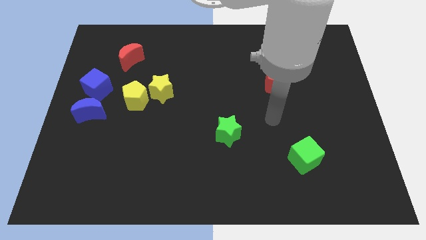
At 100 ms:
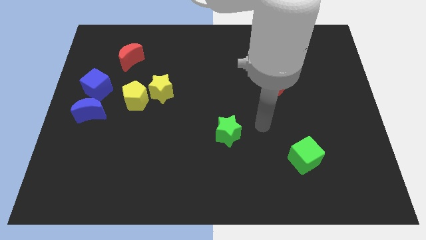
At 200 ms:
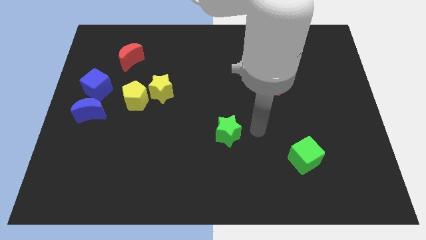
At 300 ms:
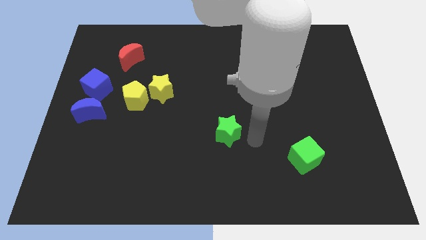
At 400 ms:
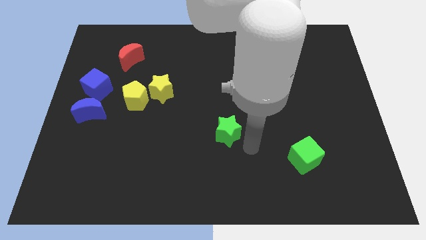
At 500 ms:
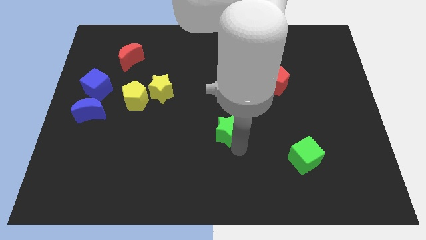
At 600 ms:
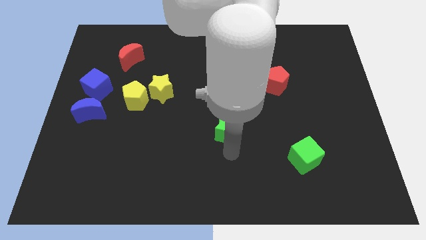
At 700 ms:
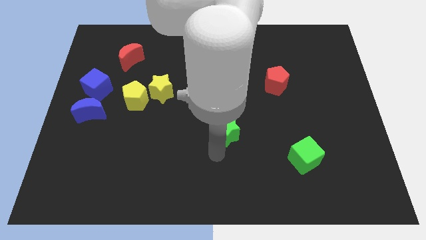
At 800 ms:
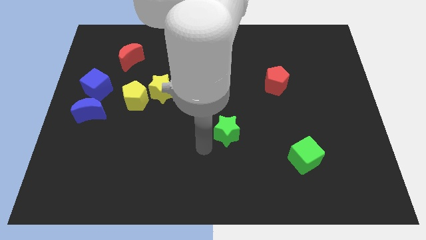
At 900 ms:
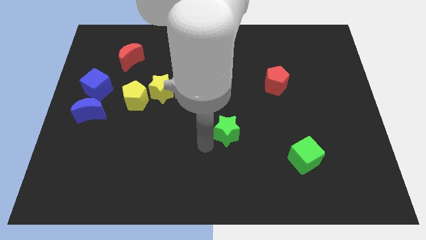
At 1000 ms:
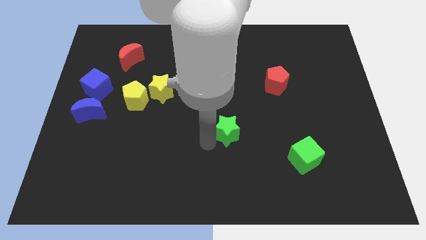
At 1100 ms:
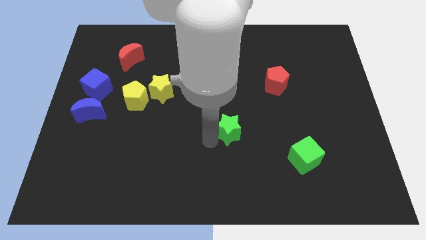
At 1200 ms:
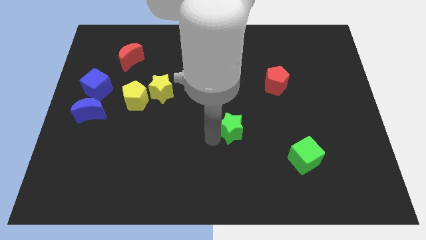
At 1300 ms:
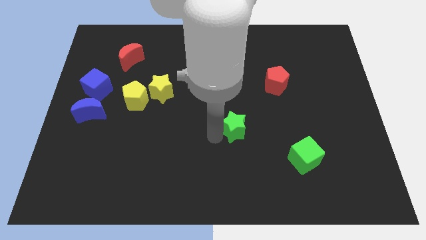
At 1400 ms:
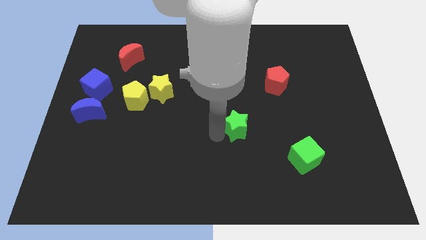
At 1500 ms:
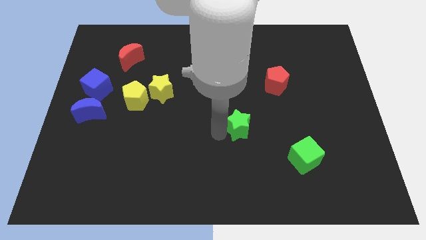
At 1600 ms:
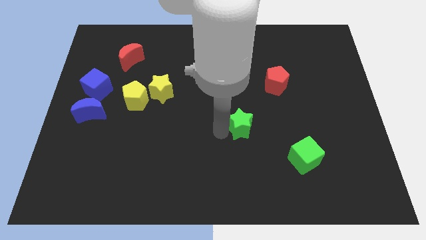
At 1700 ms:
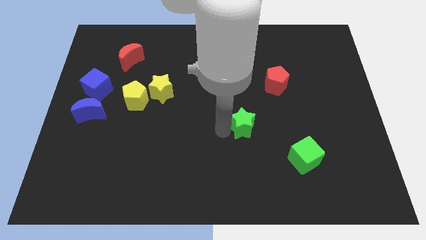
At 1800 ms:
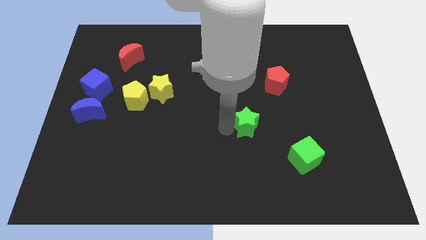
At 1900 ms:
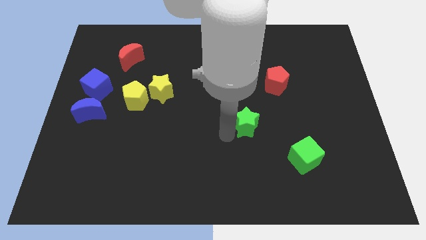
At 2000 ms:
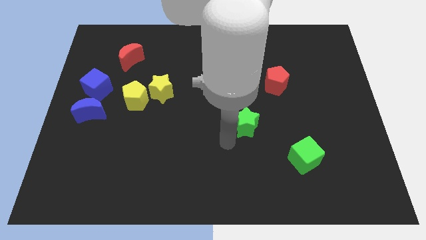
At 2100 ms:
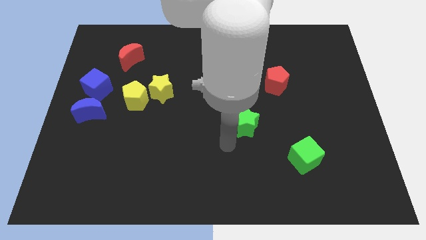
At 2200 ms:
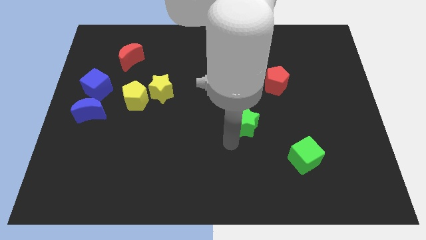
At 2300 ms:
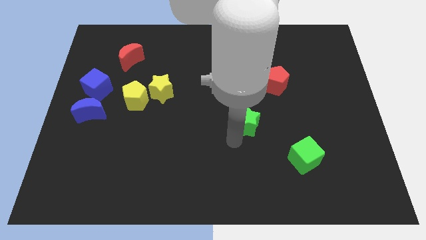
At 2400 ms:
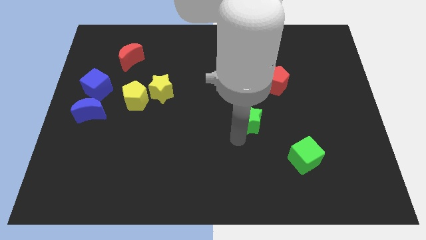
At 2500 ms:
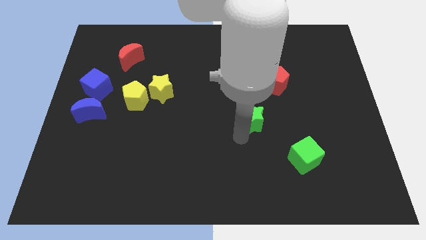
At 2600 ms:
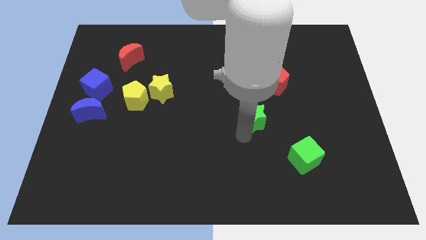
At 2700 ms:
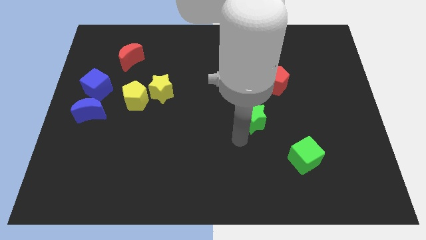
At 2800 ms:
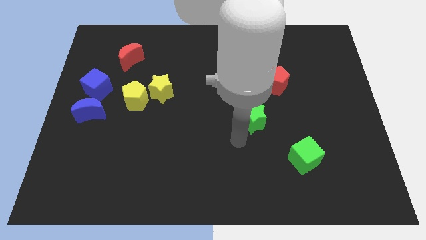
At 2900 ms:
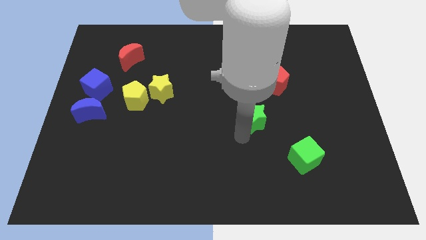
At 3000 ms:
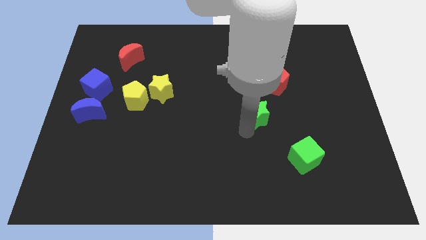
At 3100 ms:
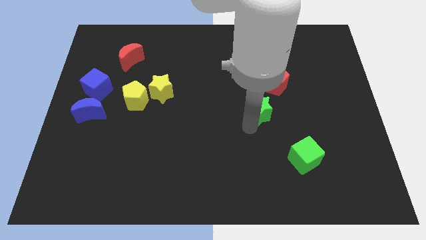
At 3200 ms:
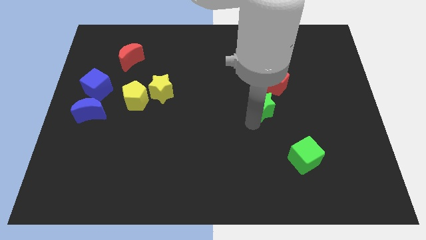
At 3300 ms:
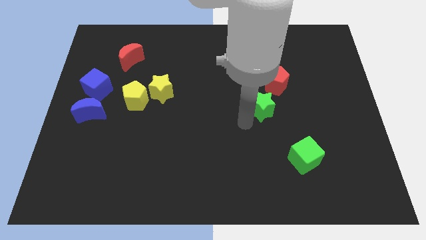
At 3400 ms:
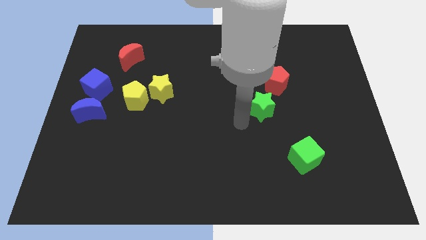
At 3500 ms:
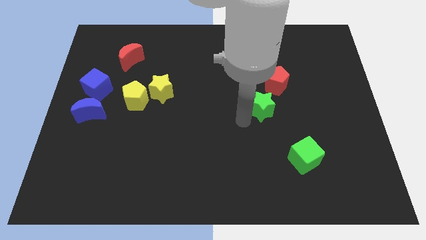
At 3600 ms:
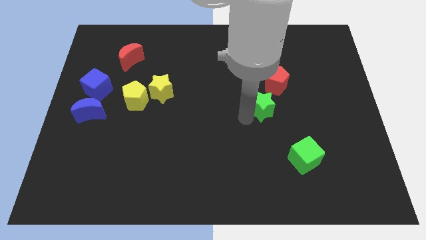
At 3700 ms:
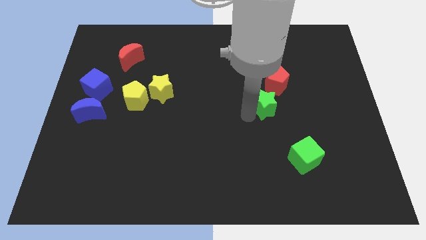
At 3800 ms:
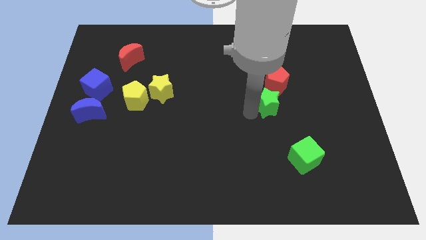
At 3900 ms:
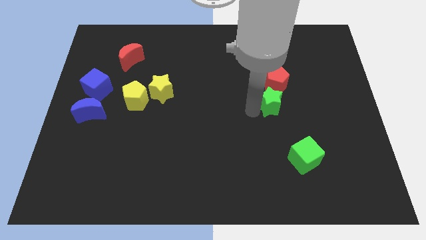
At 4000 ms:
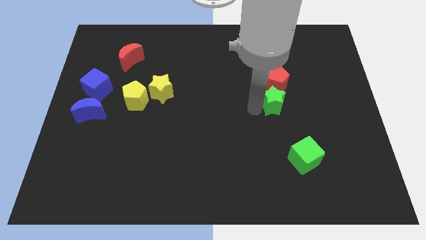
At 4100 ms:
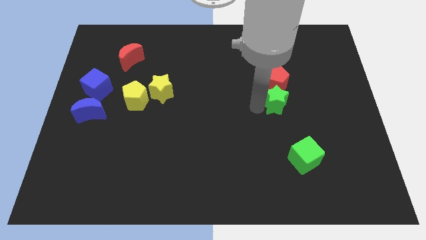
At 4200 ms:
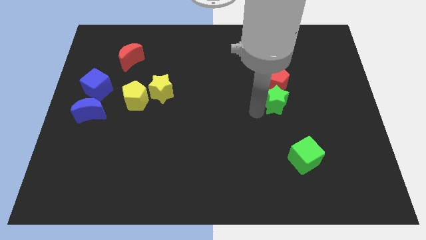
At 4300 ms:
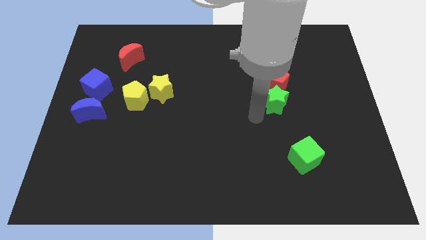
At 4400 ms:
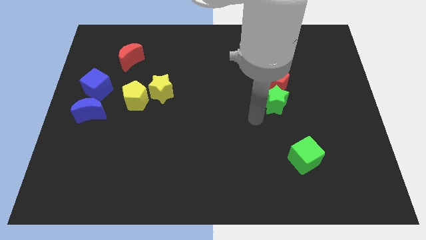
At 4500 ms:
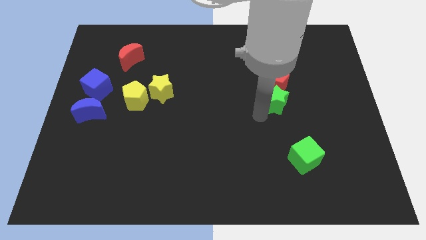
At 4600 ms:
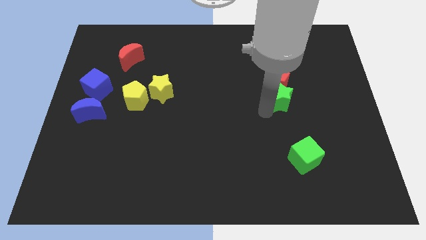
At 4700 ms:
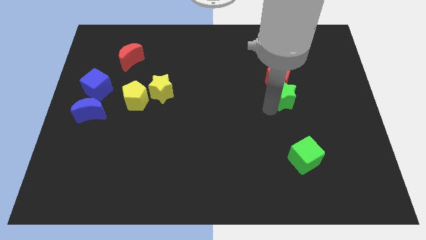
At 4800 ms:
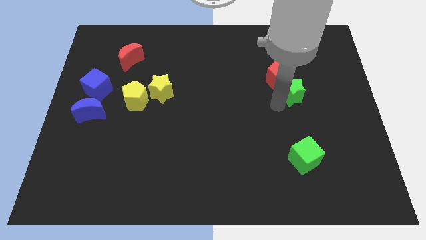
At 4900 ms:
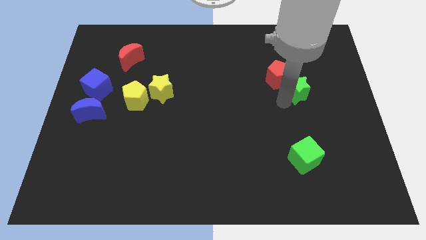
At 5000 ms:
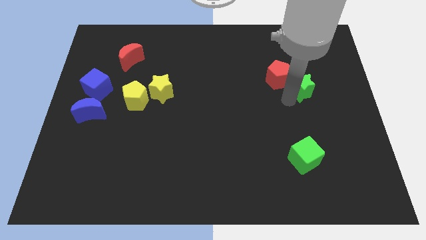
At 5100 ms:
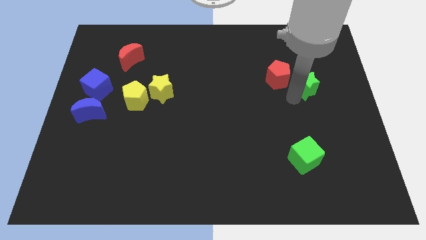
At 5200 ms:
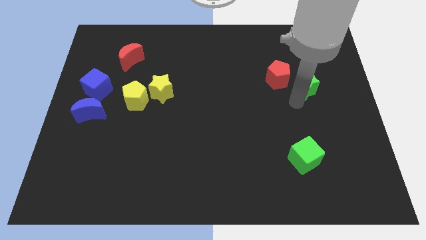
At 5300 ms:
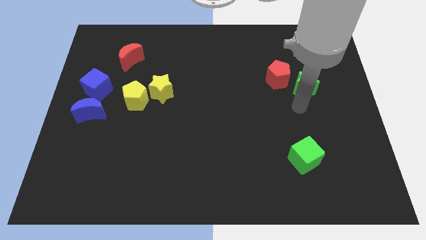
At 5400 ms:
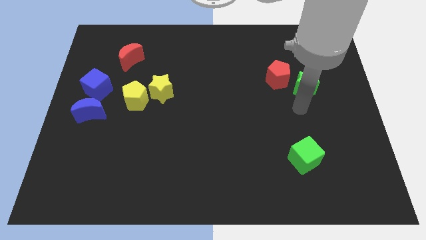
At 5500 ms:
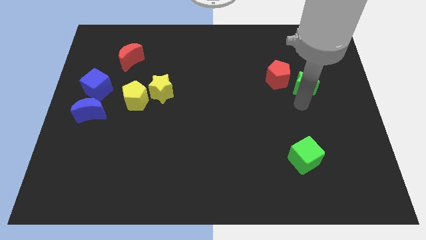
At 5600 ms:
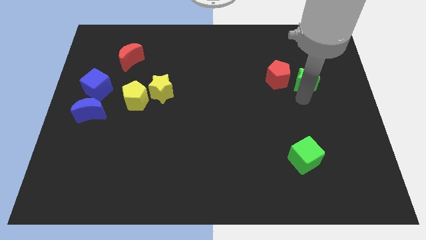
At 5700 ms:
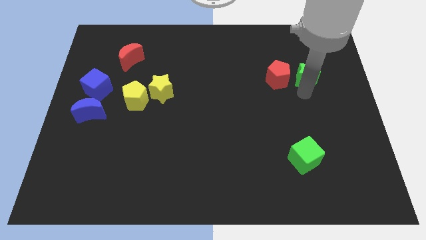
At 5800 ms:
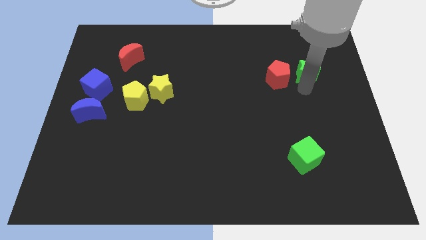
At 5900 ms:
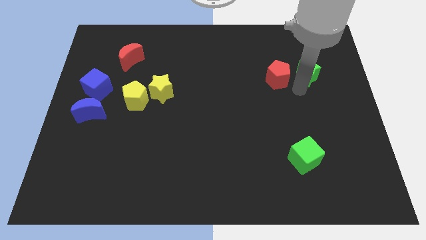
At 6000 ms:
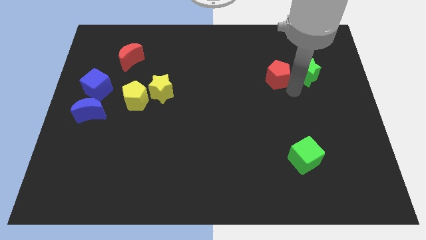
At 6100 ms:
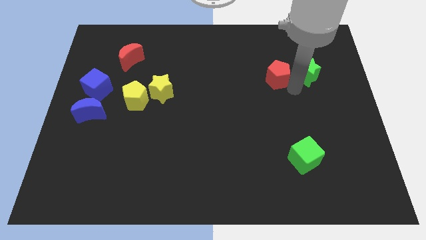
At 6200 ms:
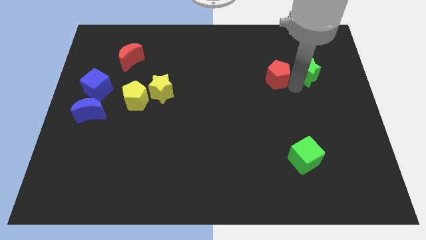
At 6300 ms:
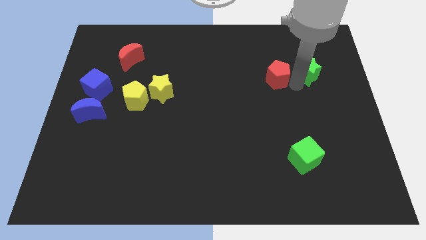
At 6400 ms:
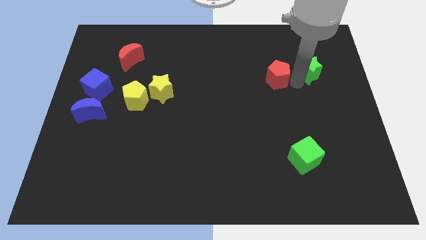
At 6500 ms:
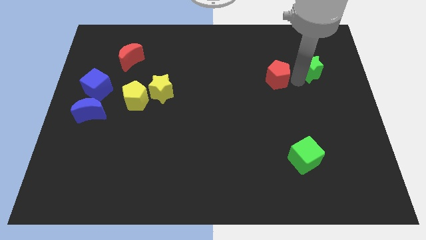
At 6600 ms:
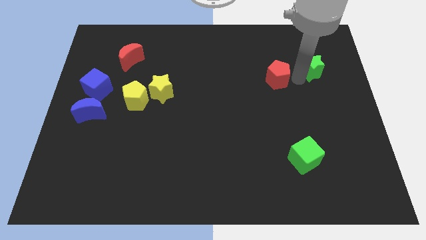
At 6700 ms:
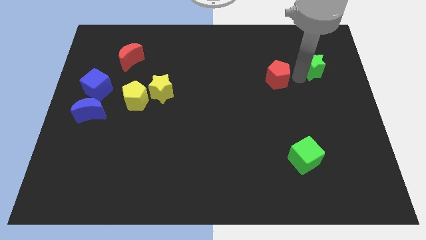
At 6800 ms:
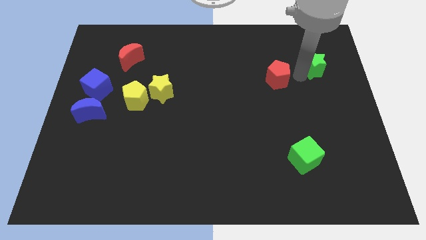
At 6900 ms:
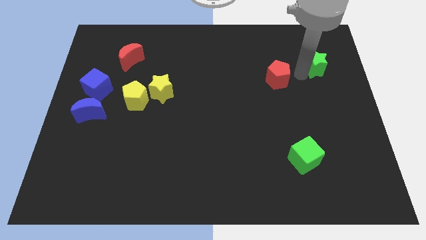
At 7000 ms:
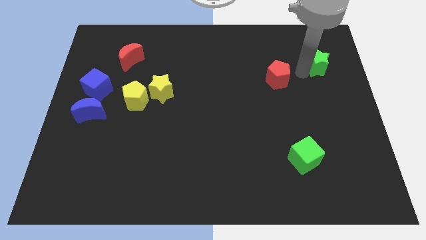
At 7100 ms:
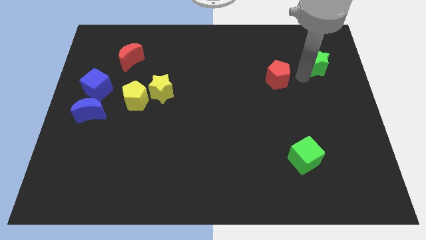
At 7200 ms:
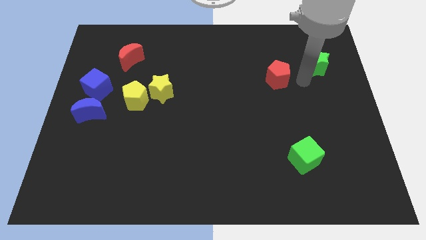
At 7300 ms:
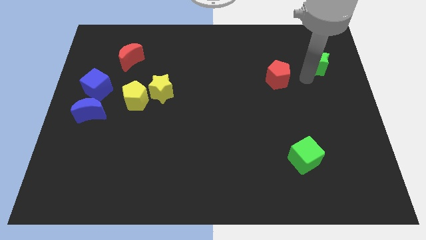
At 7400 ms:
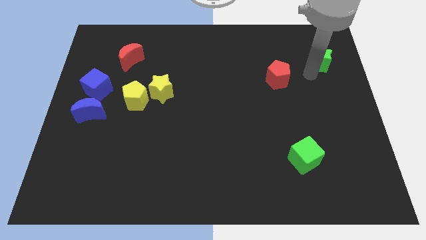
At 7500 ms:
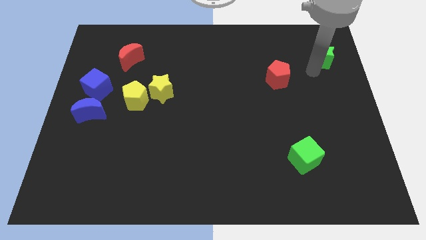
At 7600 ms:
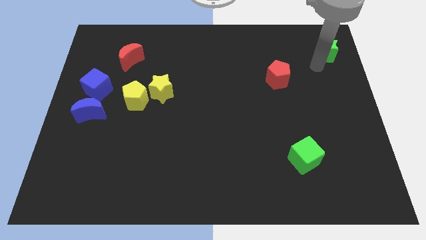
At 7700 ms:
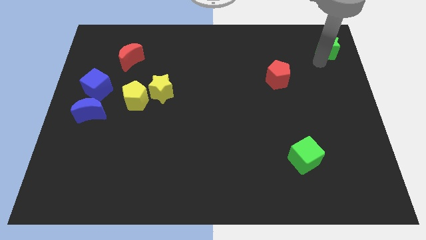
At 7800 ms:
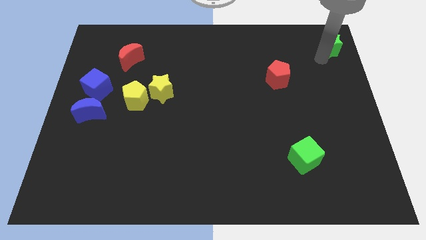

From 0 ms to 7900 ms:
put the green star to the top right corner
